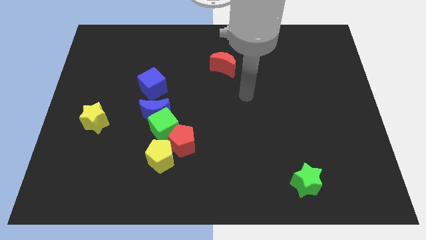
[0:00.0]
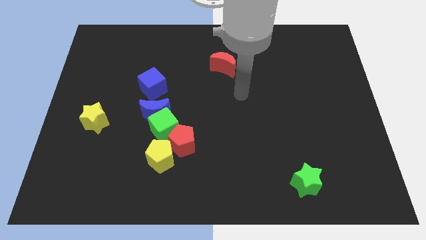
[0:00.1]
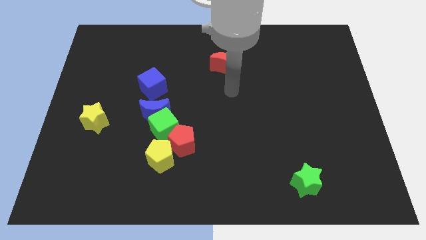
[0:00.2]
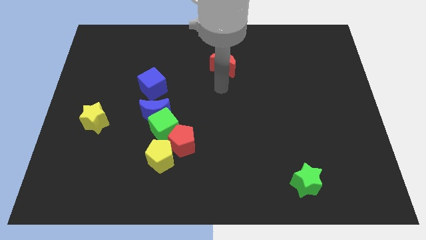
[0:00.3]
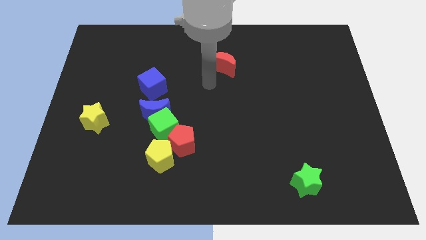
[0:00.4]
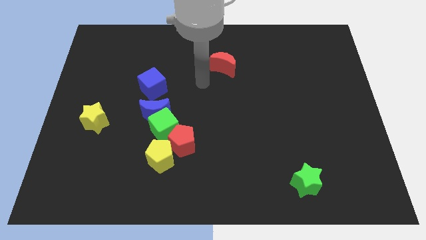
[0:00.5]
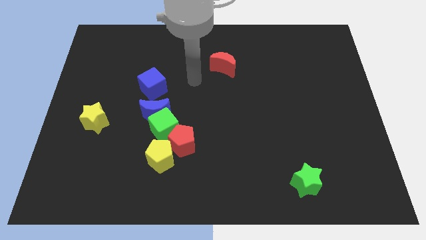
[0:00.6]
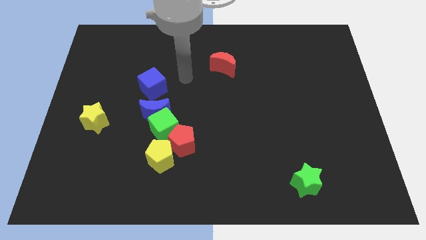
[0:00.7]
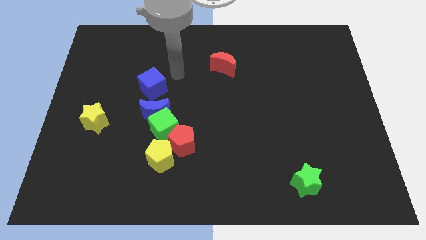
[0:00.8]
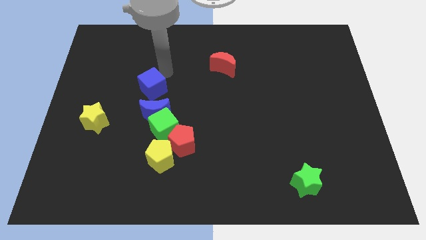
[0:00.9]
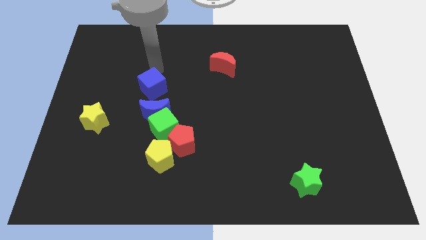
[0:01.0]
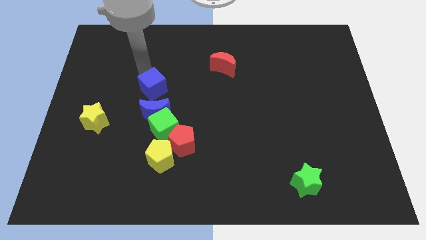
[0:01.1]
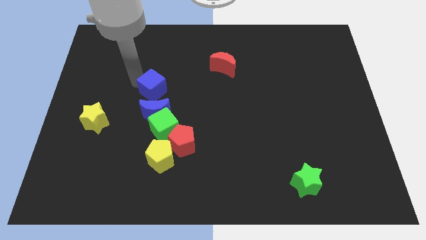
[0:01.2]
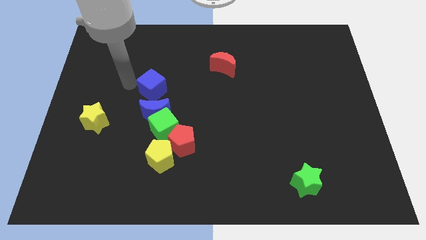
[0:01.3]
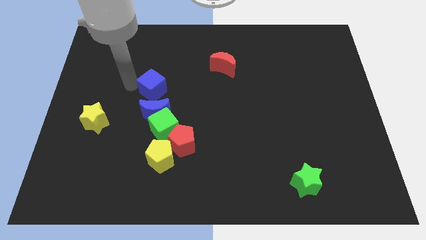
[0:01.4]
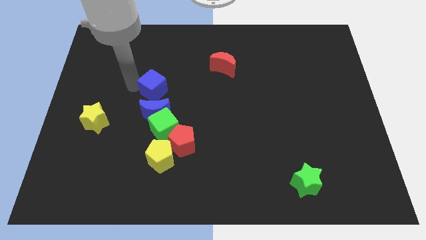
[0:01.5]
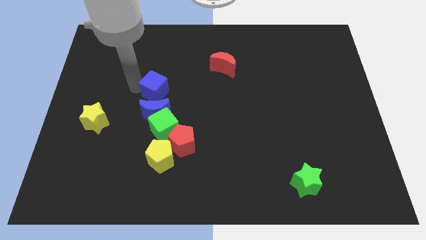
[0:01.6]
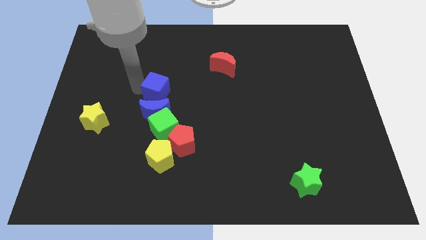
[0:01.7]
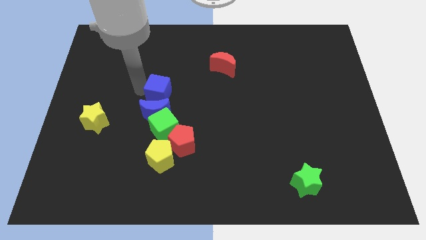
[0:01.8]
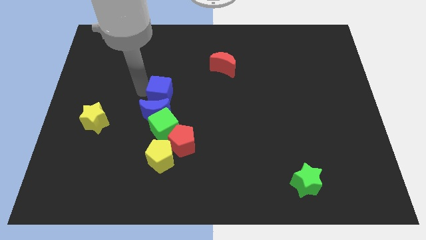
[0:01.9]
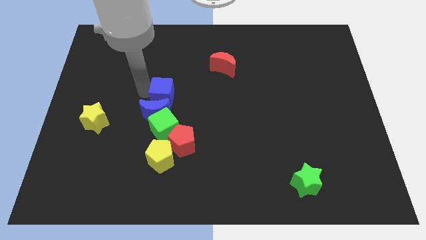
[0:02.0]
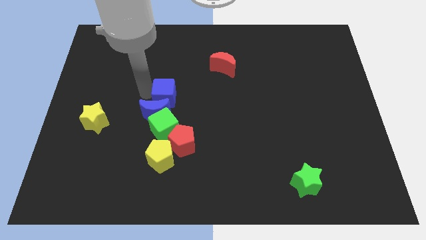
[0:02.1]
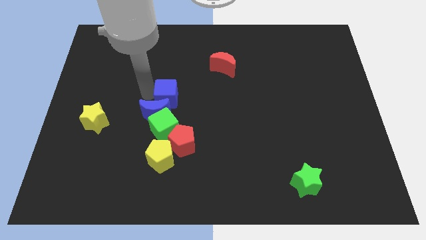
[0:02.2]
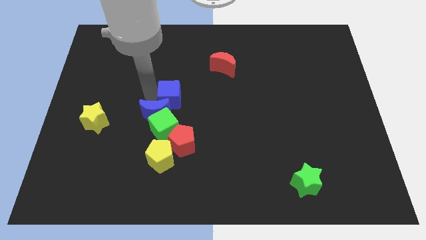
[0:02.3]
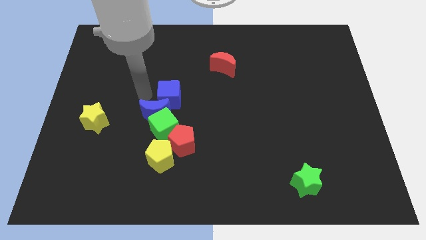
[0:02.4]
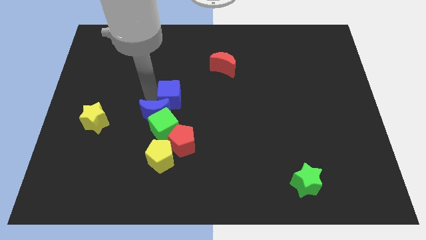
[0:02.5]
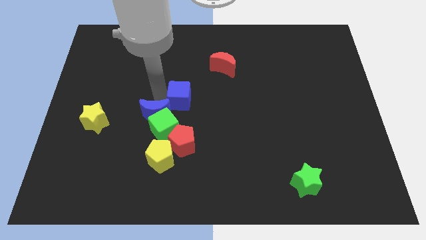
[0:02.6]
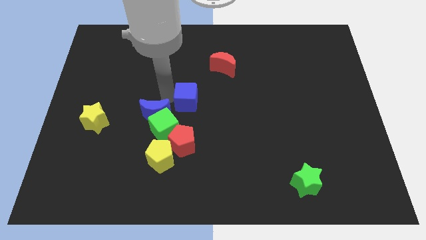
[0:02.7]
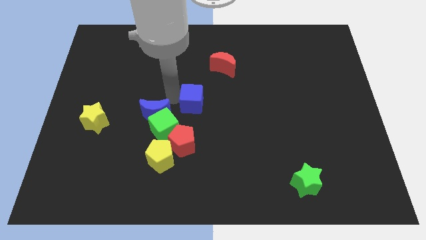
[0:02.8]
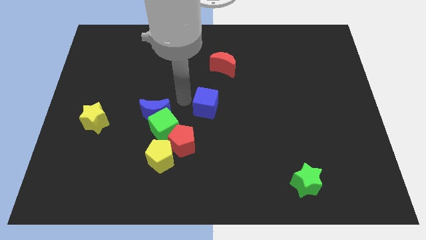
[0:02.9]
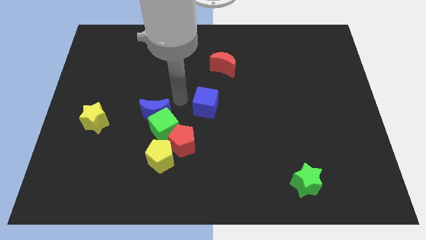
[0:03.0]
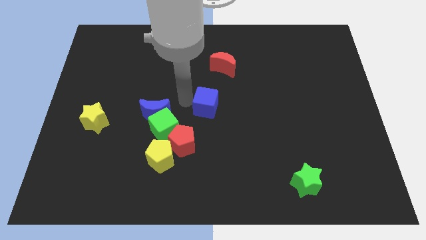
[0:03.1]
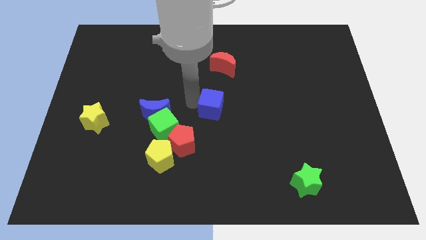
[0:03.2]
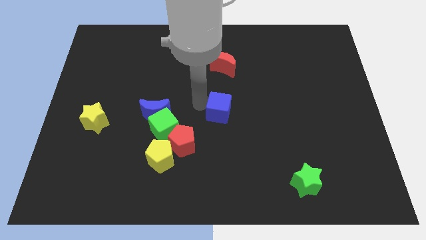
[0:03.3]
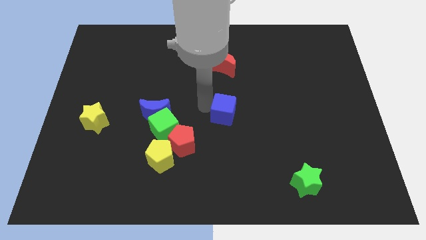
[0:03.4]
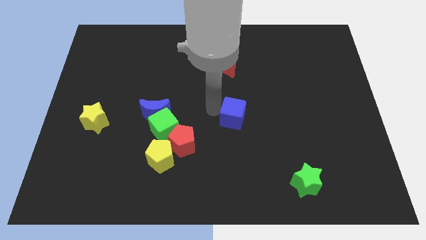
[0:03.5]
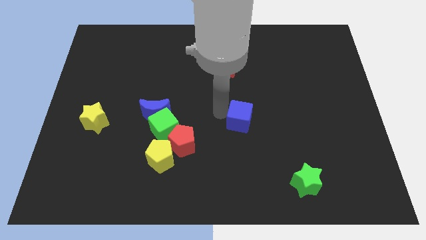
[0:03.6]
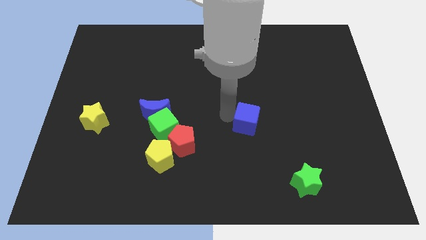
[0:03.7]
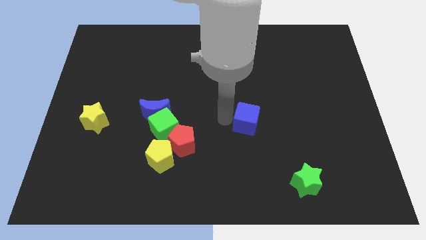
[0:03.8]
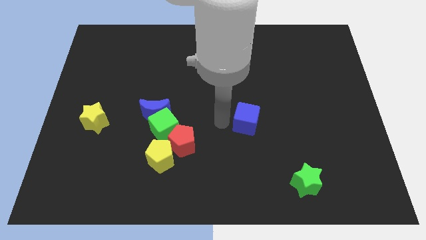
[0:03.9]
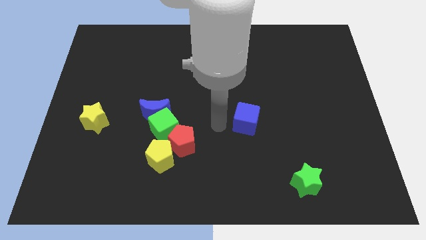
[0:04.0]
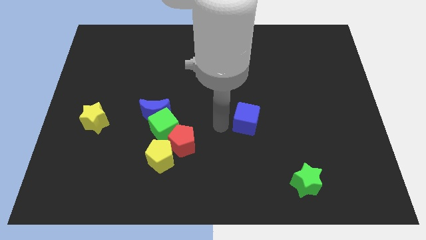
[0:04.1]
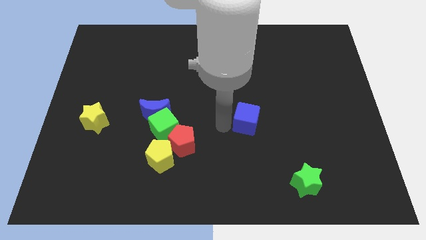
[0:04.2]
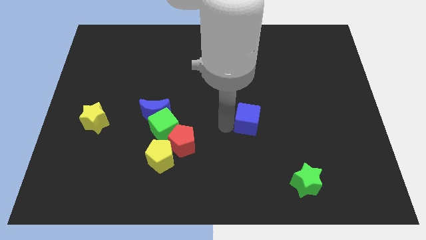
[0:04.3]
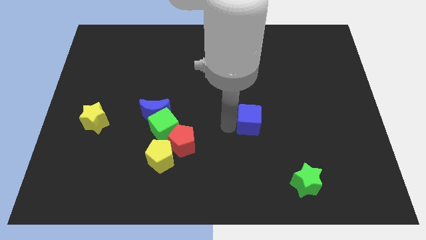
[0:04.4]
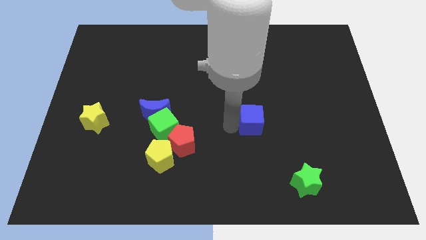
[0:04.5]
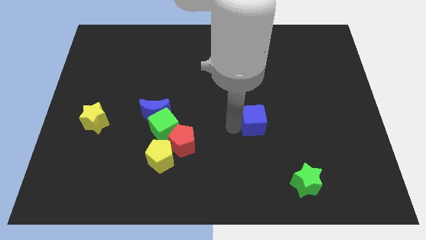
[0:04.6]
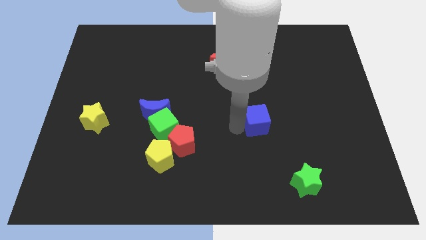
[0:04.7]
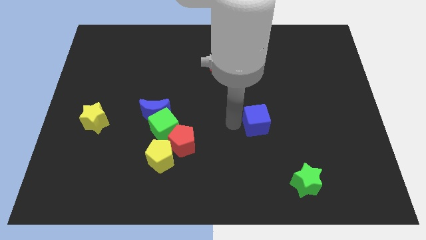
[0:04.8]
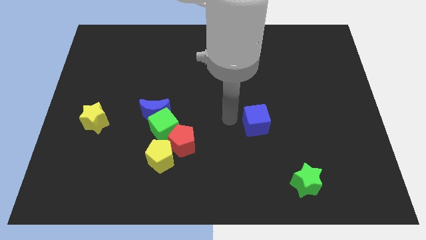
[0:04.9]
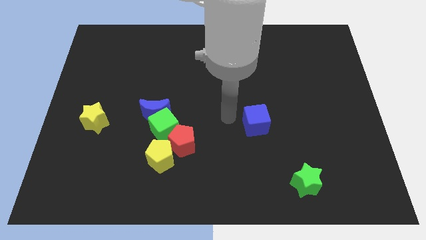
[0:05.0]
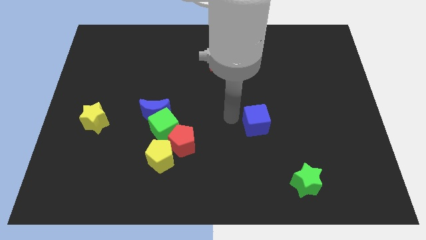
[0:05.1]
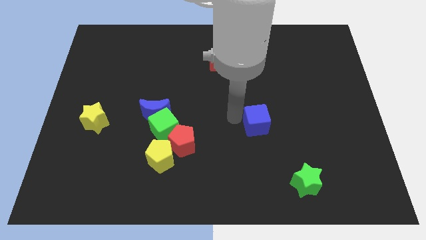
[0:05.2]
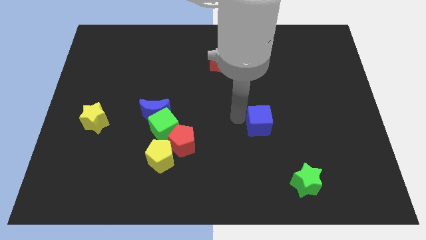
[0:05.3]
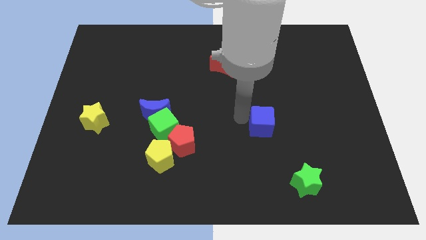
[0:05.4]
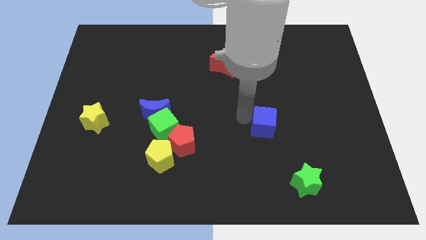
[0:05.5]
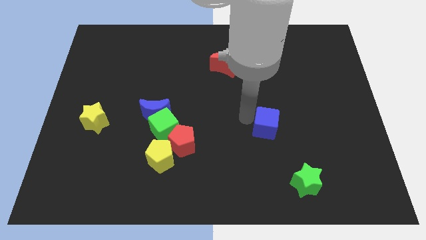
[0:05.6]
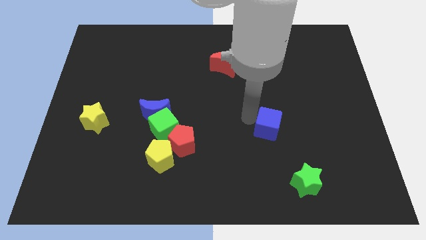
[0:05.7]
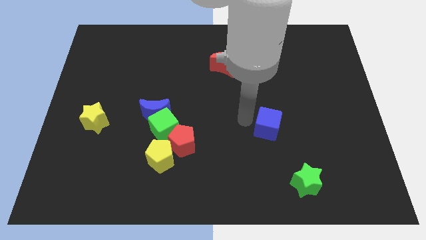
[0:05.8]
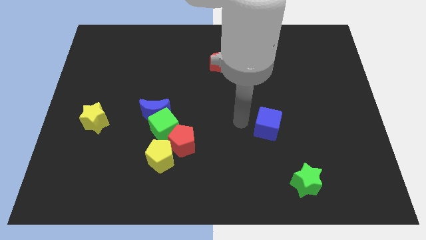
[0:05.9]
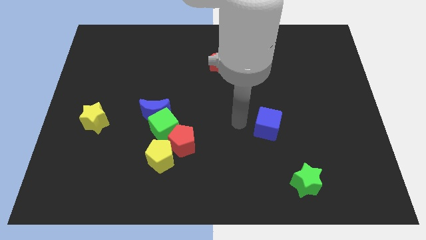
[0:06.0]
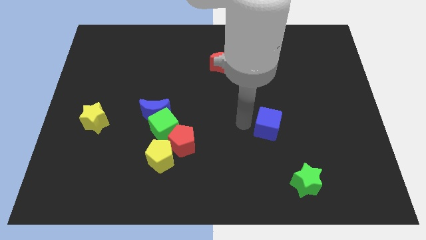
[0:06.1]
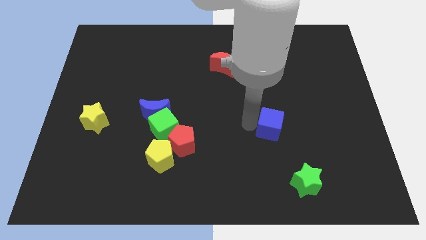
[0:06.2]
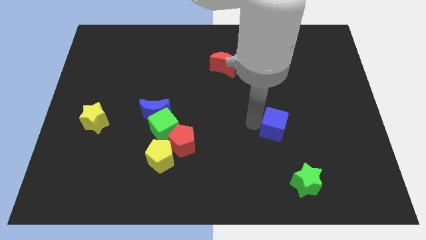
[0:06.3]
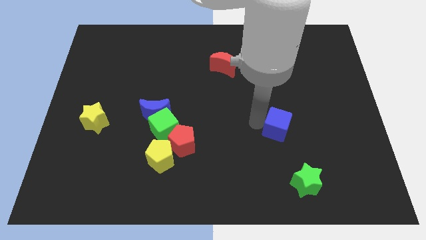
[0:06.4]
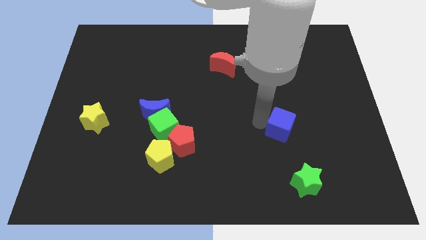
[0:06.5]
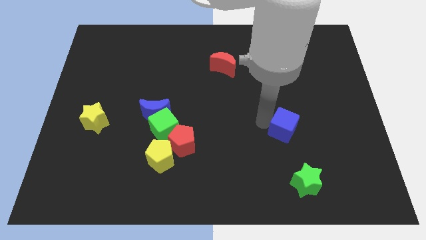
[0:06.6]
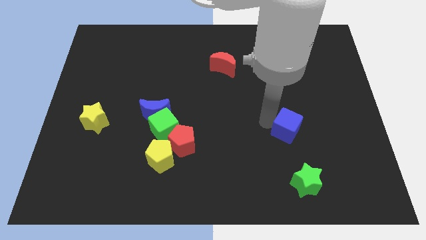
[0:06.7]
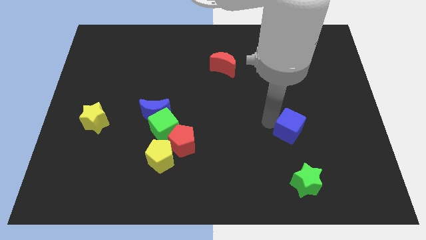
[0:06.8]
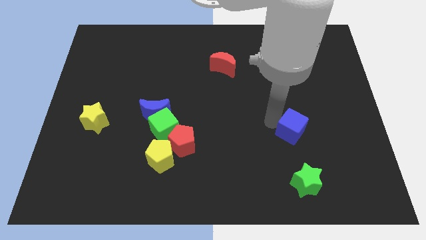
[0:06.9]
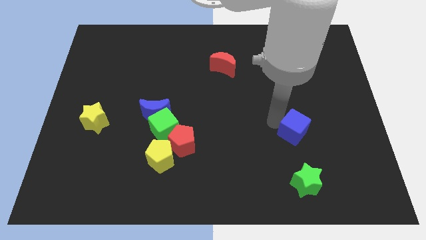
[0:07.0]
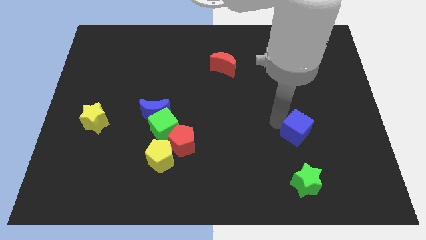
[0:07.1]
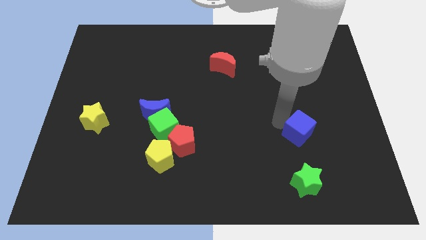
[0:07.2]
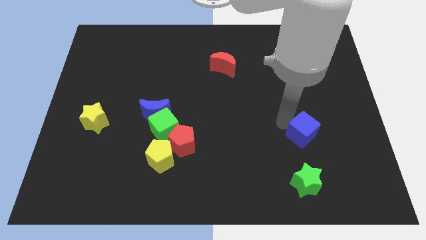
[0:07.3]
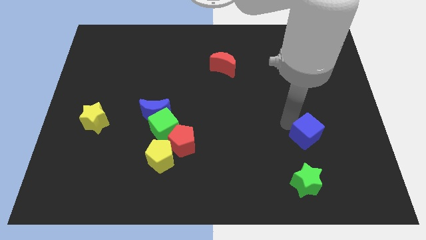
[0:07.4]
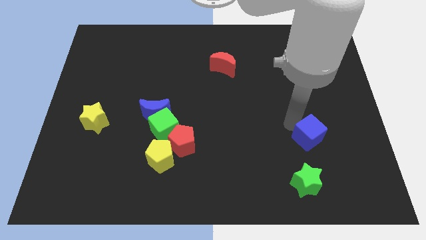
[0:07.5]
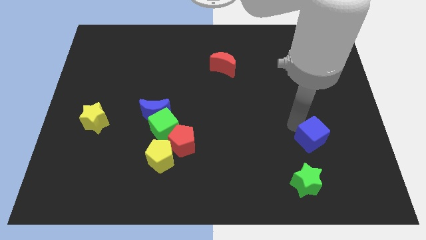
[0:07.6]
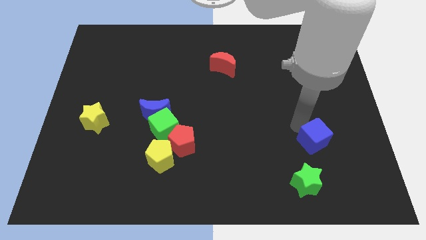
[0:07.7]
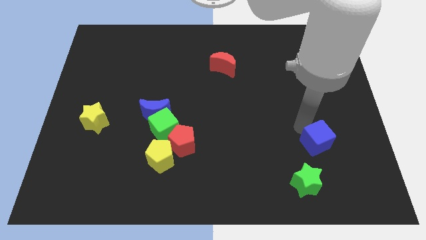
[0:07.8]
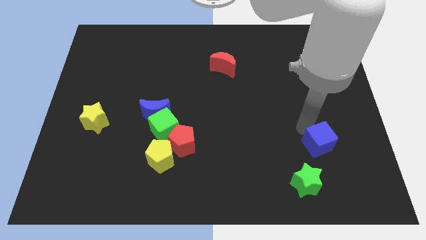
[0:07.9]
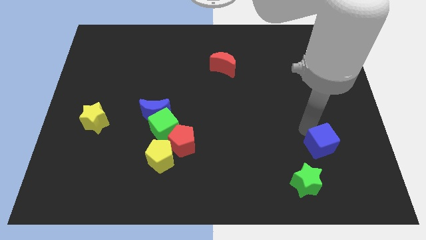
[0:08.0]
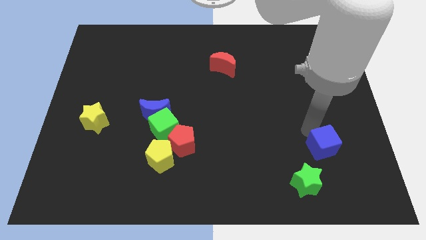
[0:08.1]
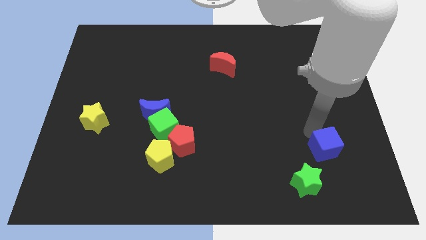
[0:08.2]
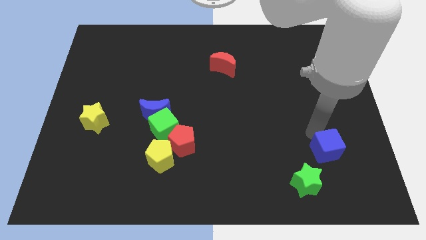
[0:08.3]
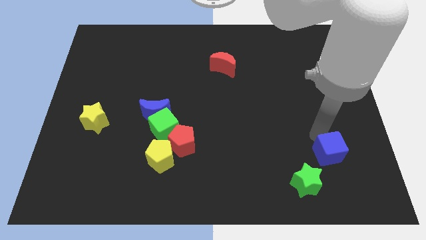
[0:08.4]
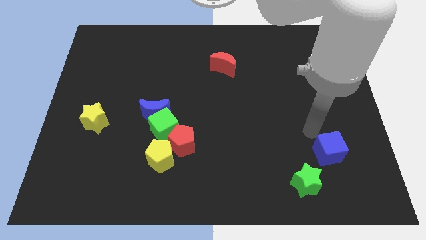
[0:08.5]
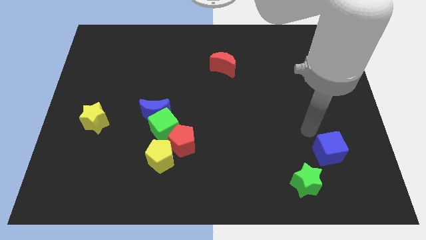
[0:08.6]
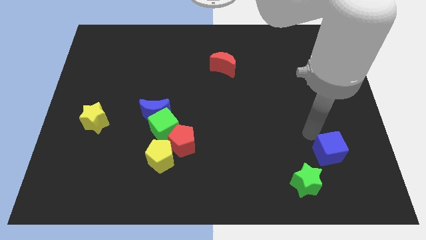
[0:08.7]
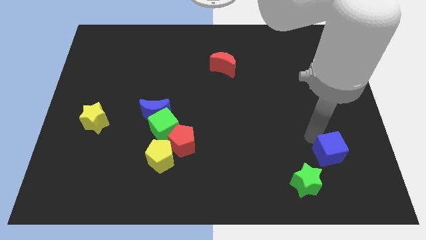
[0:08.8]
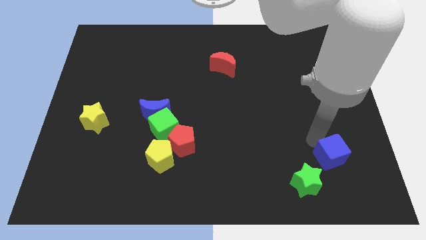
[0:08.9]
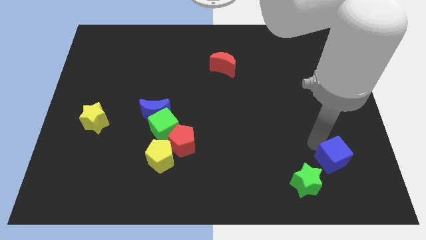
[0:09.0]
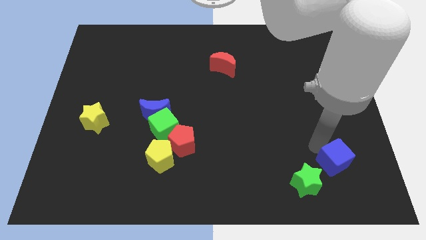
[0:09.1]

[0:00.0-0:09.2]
put the blue cube to the right of the green star
